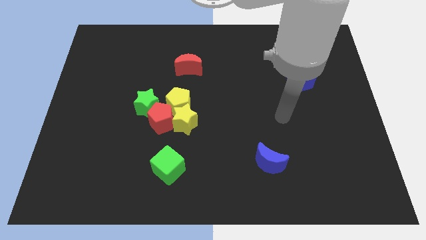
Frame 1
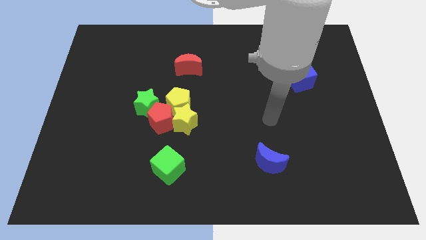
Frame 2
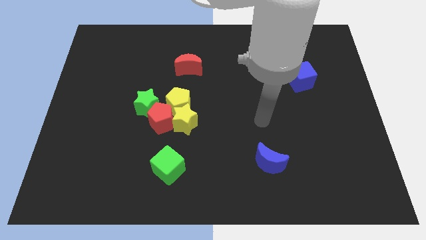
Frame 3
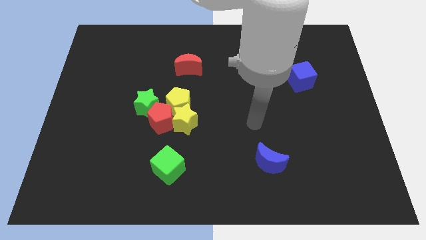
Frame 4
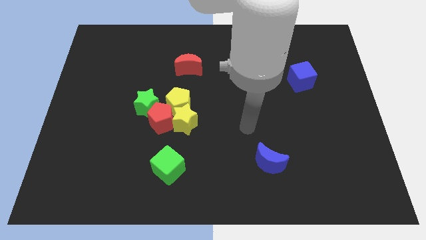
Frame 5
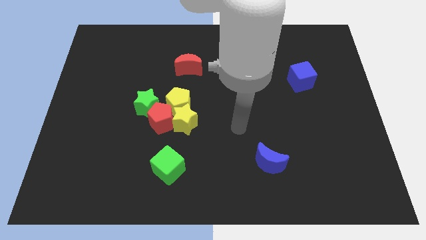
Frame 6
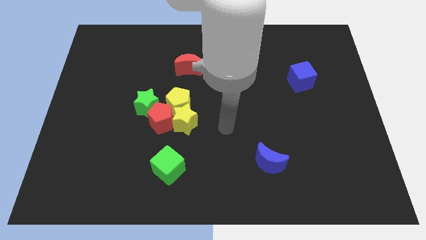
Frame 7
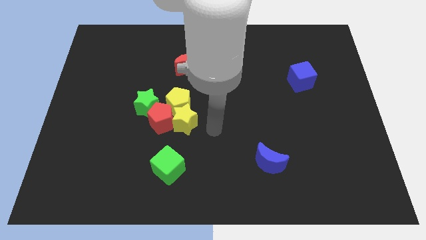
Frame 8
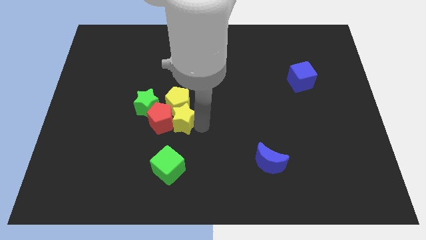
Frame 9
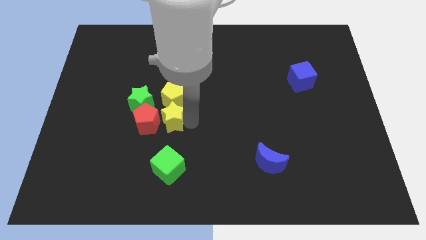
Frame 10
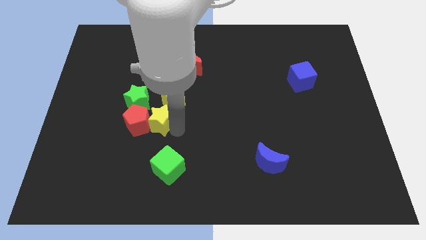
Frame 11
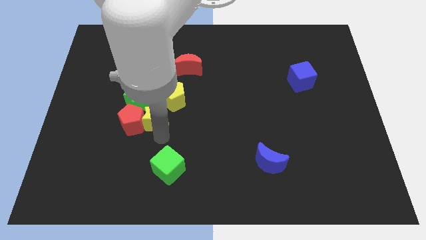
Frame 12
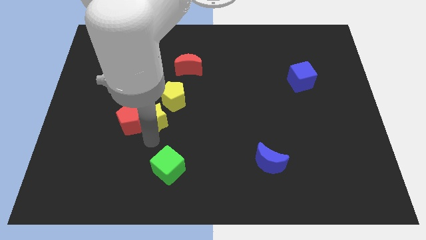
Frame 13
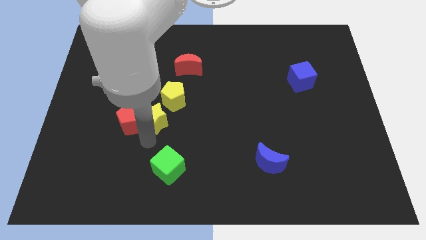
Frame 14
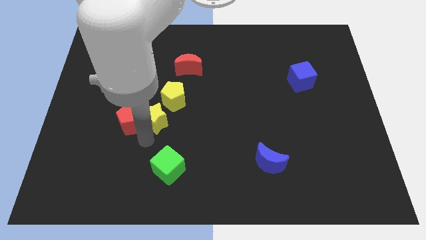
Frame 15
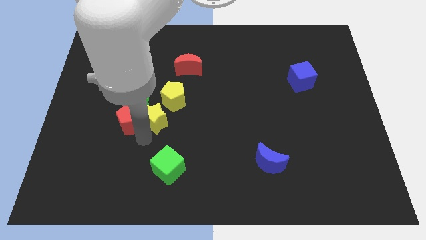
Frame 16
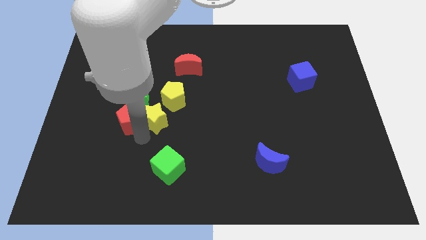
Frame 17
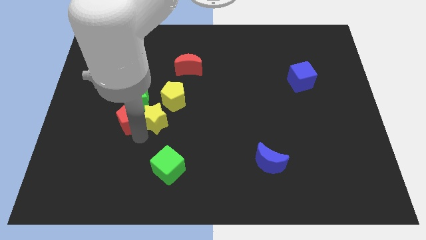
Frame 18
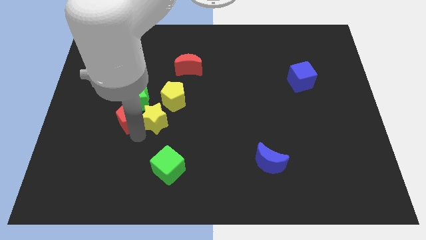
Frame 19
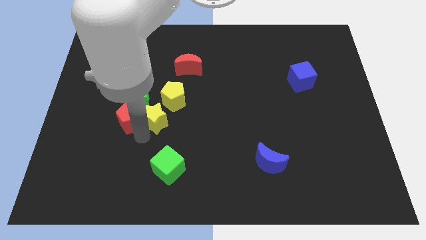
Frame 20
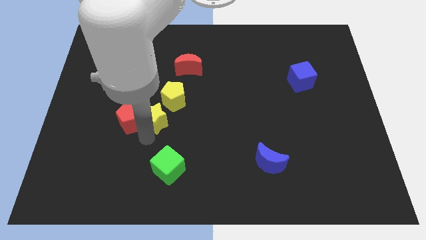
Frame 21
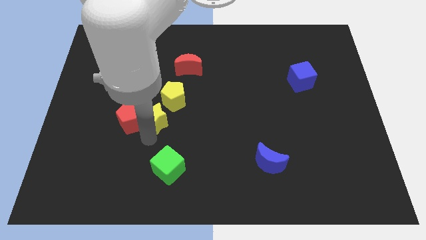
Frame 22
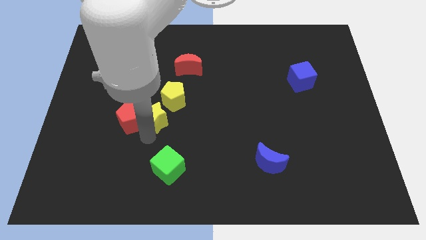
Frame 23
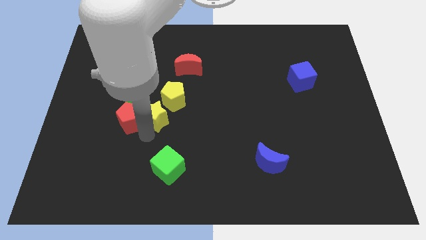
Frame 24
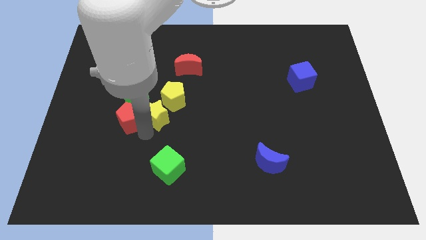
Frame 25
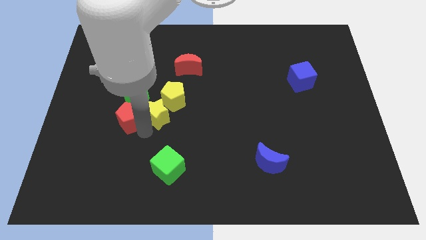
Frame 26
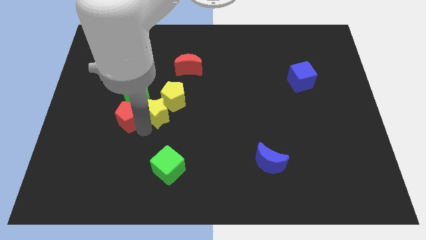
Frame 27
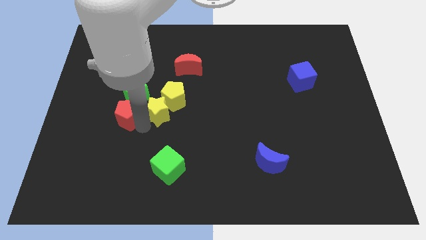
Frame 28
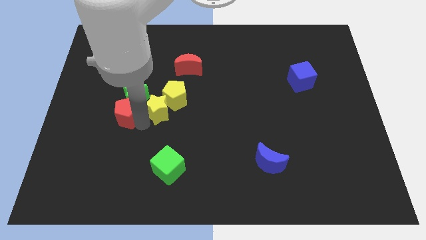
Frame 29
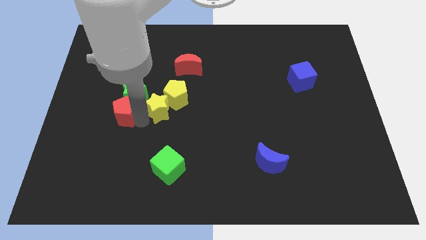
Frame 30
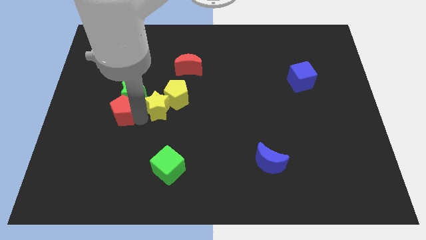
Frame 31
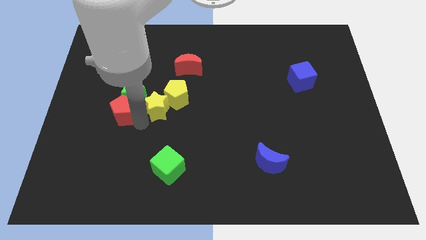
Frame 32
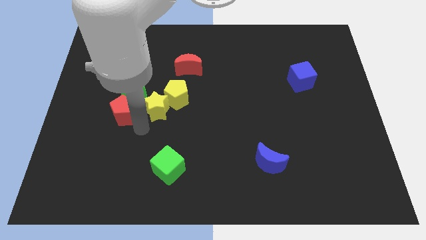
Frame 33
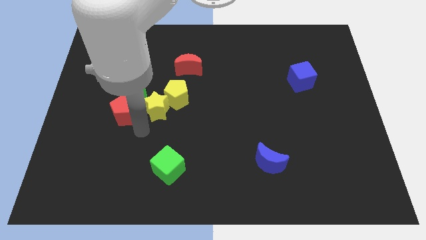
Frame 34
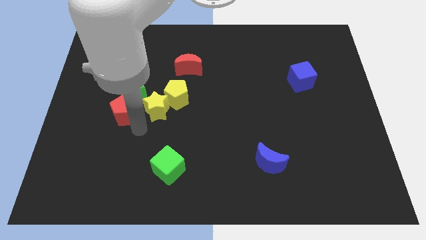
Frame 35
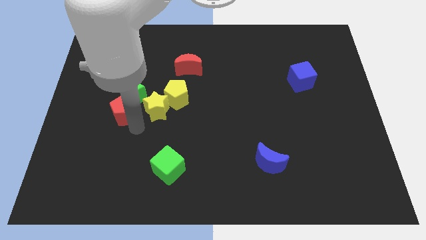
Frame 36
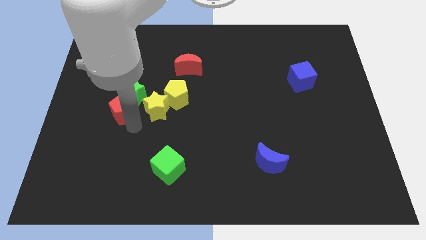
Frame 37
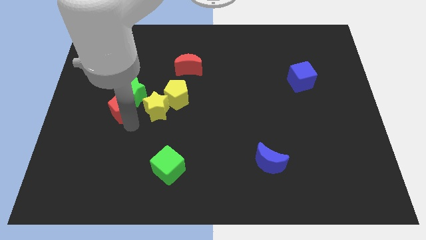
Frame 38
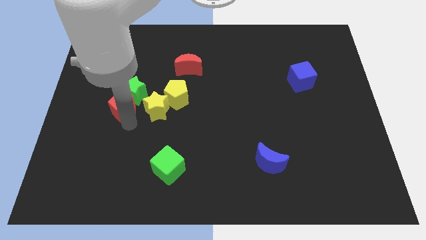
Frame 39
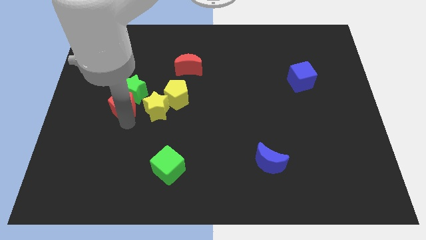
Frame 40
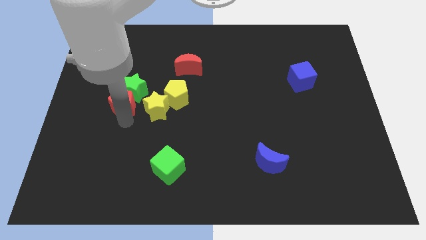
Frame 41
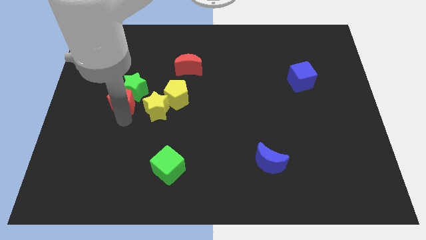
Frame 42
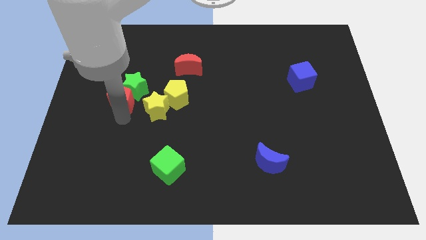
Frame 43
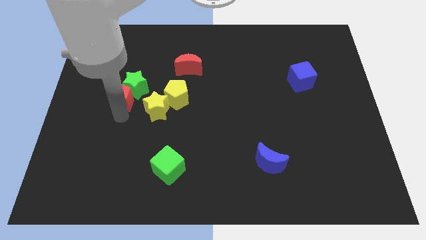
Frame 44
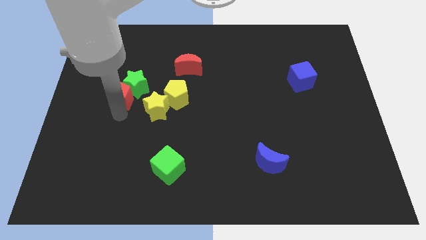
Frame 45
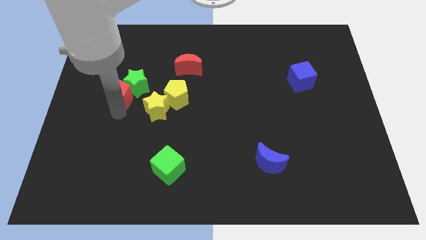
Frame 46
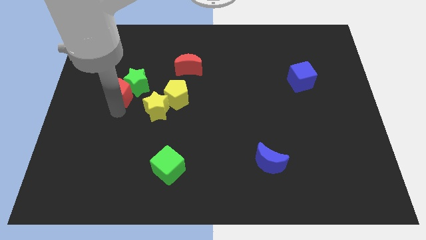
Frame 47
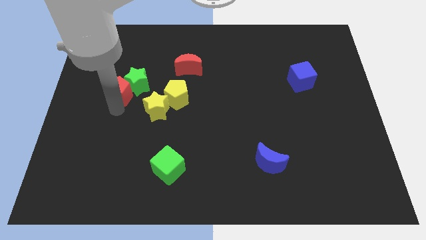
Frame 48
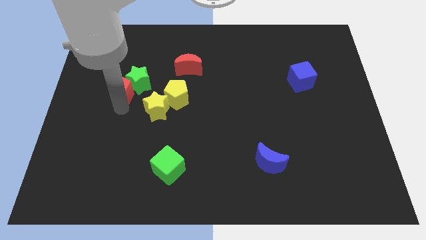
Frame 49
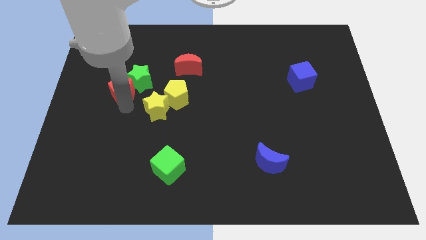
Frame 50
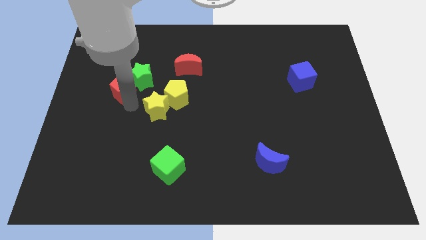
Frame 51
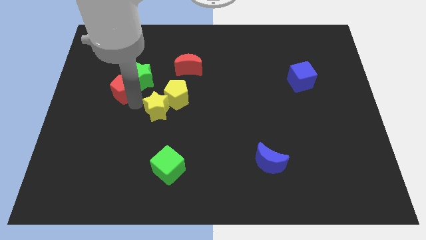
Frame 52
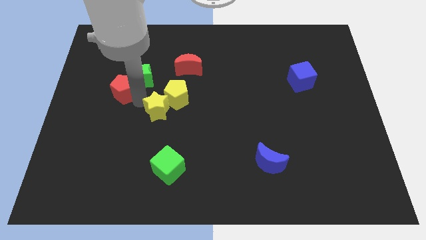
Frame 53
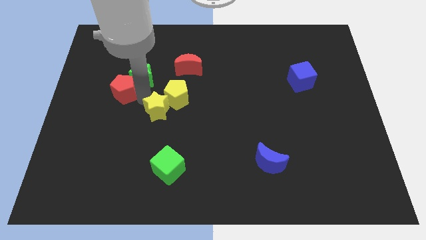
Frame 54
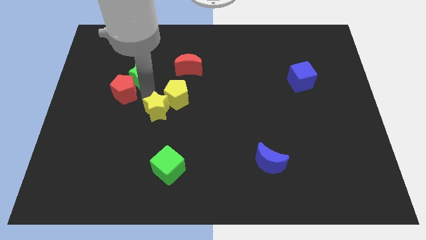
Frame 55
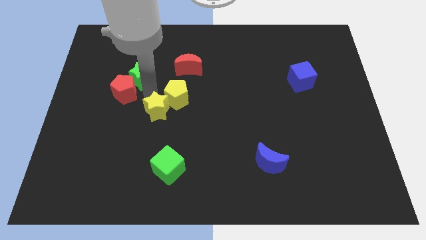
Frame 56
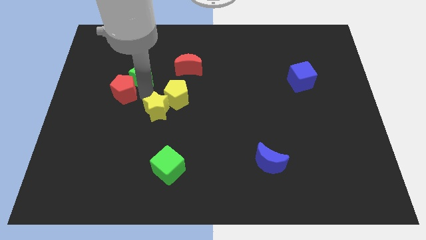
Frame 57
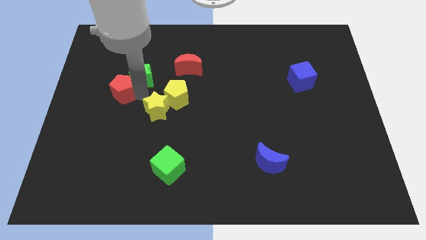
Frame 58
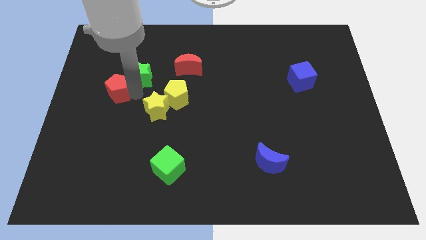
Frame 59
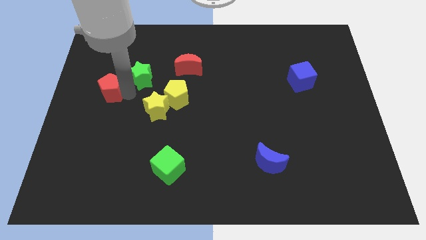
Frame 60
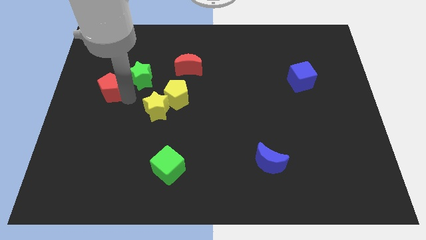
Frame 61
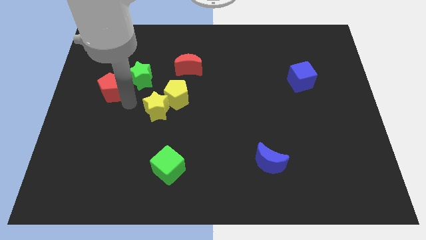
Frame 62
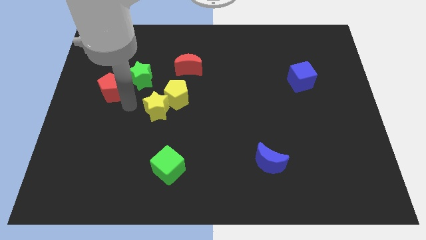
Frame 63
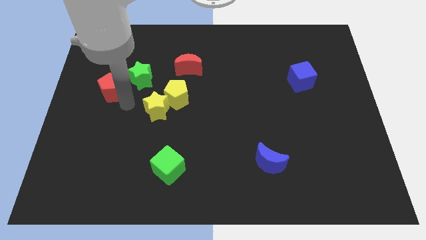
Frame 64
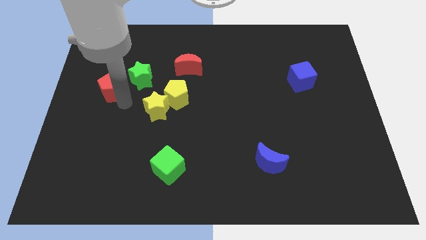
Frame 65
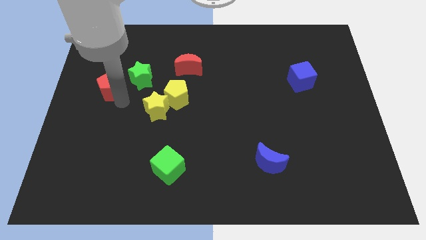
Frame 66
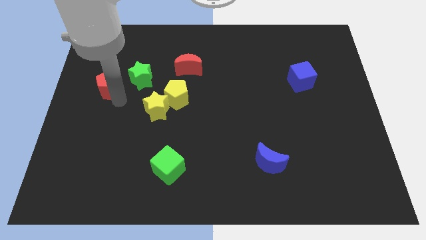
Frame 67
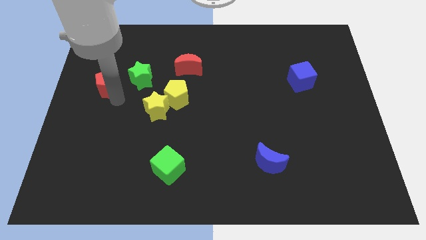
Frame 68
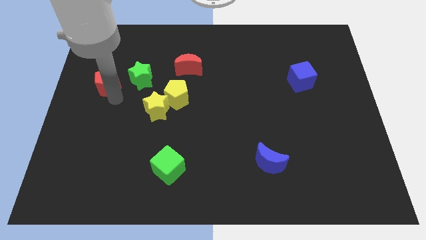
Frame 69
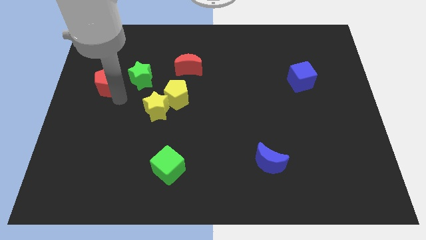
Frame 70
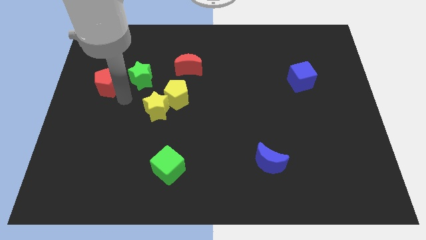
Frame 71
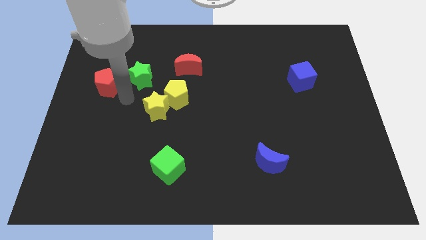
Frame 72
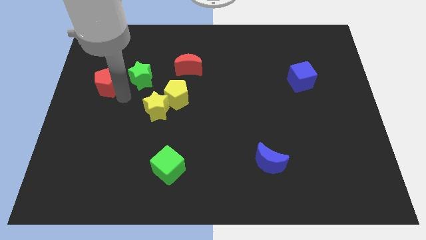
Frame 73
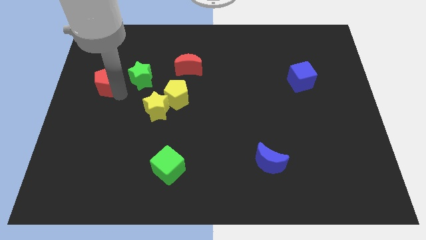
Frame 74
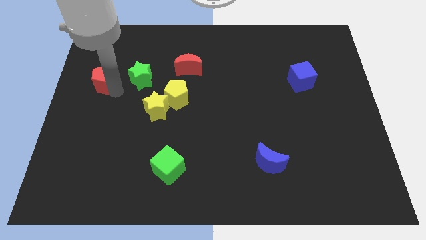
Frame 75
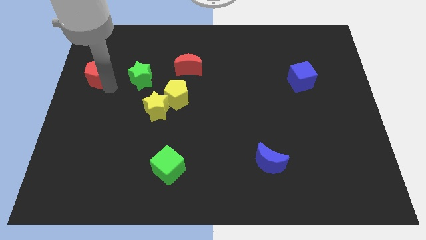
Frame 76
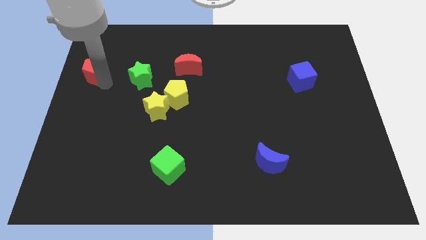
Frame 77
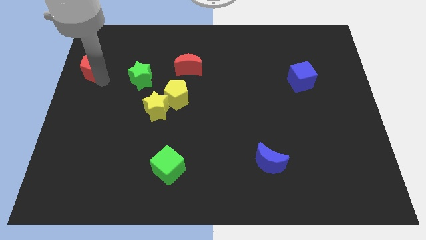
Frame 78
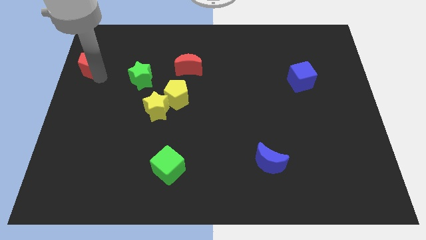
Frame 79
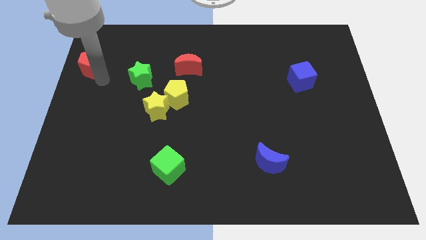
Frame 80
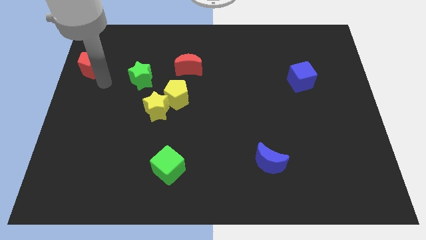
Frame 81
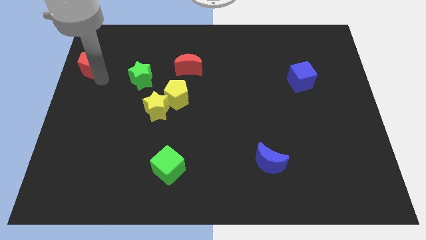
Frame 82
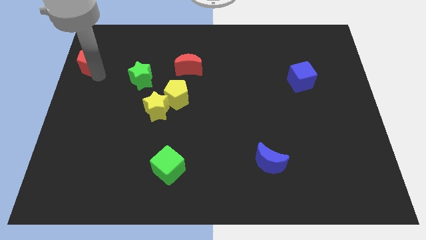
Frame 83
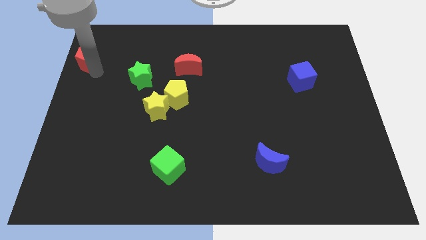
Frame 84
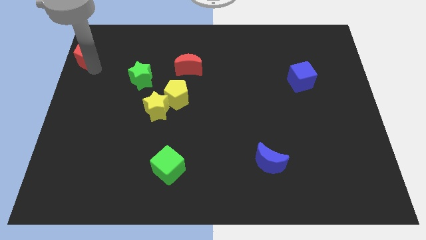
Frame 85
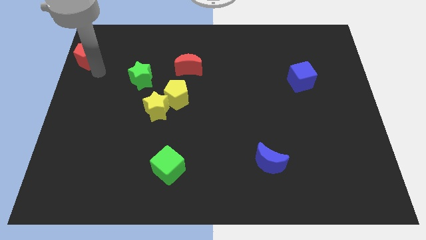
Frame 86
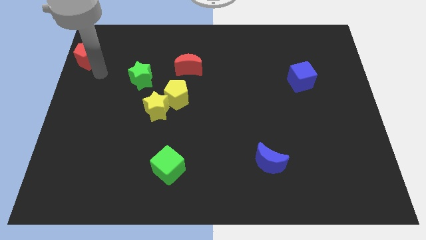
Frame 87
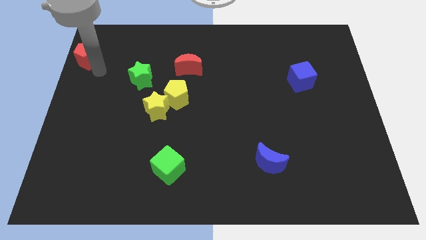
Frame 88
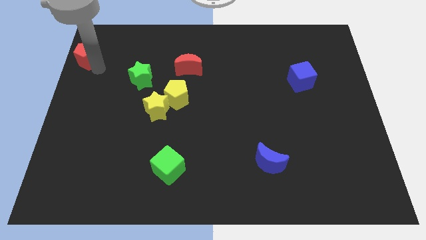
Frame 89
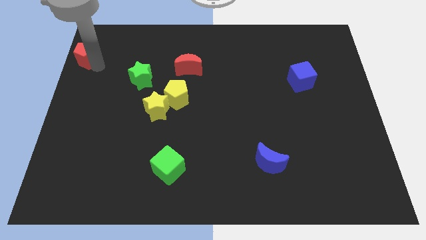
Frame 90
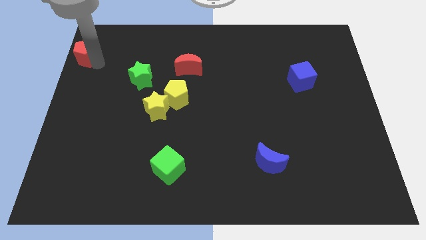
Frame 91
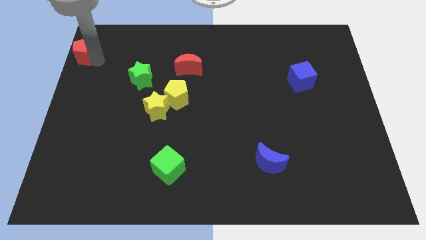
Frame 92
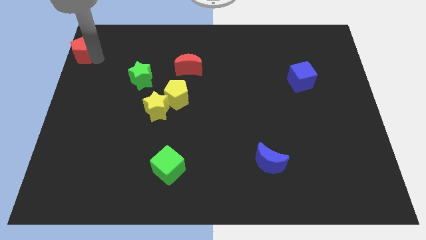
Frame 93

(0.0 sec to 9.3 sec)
move the red pentagon to the top left corner
